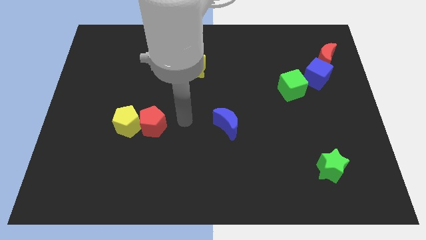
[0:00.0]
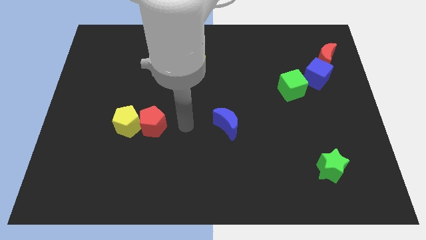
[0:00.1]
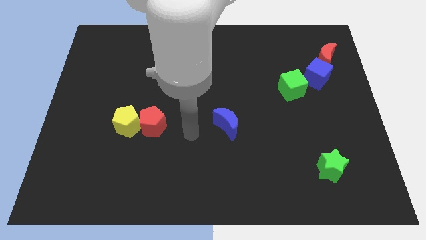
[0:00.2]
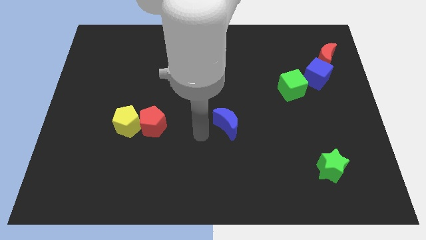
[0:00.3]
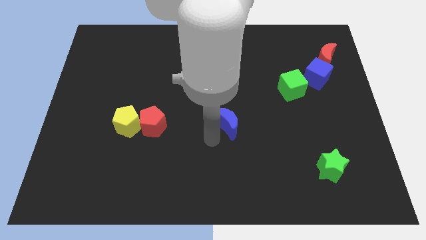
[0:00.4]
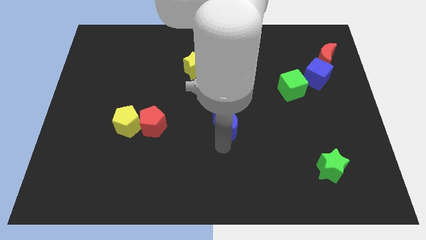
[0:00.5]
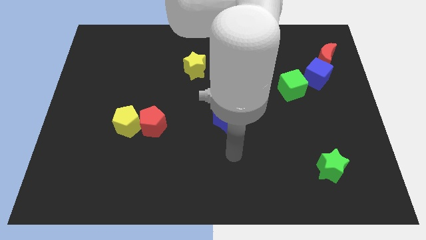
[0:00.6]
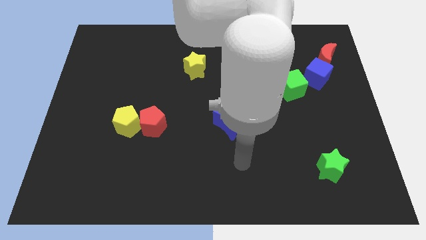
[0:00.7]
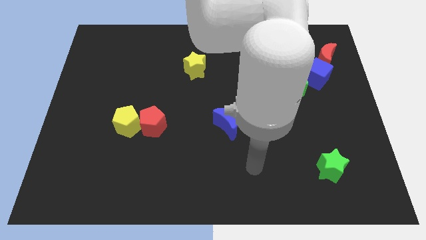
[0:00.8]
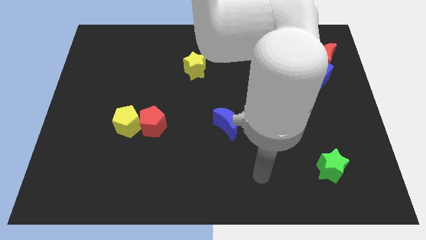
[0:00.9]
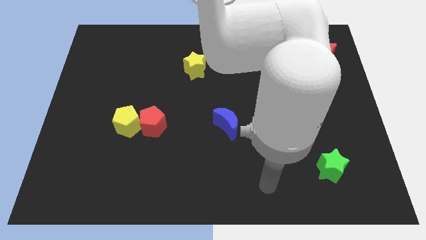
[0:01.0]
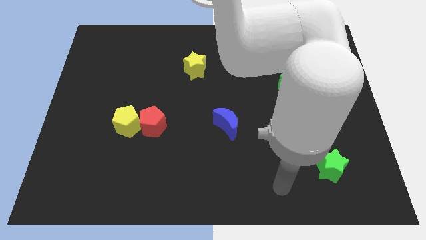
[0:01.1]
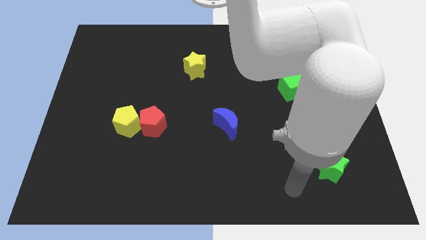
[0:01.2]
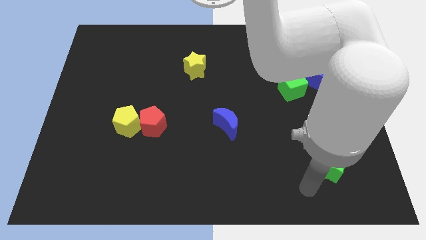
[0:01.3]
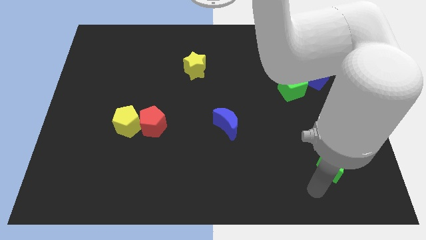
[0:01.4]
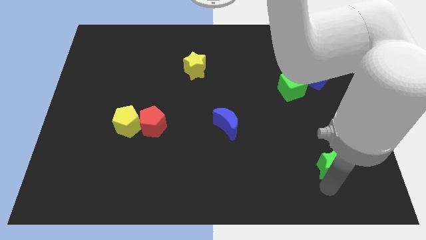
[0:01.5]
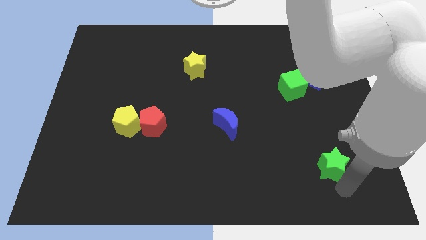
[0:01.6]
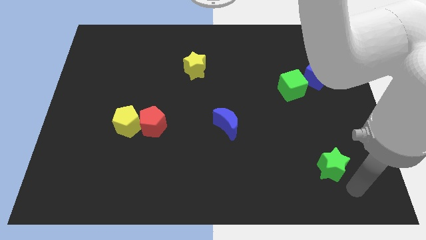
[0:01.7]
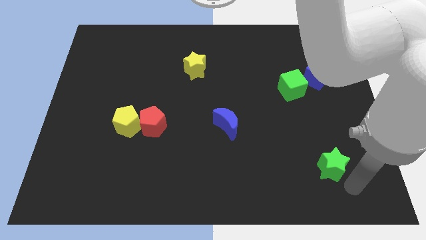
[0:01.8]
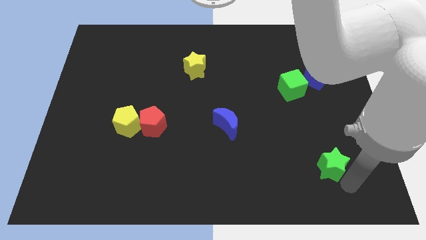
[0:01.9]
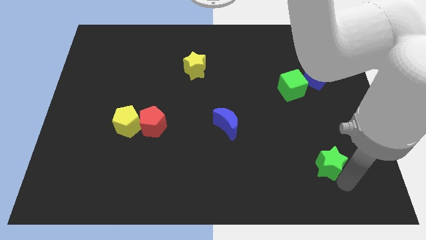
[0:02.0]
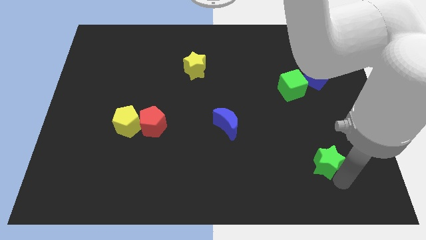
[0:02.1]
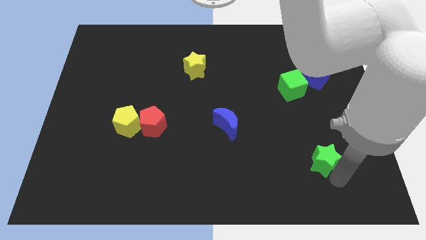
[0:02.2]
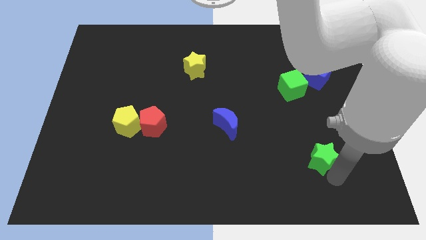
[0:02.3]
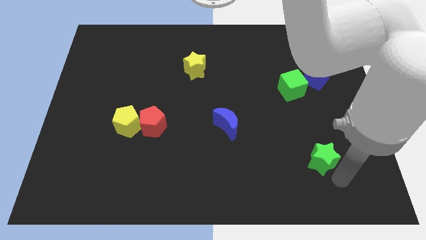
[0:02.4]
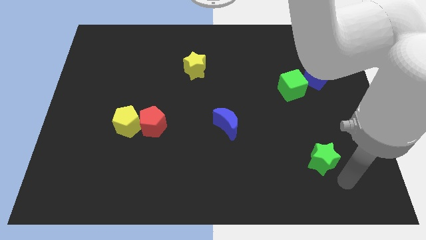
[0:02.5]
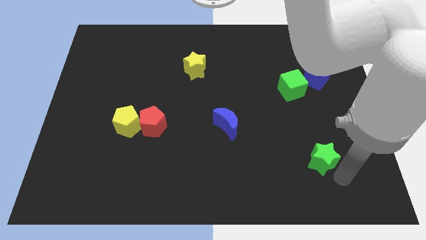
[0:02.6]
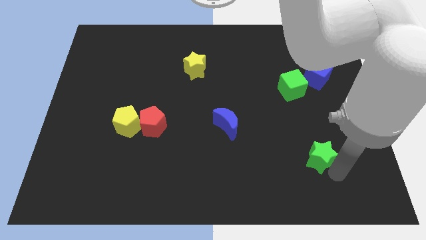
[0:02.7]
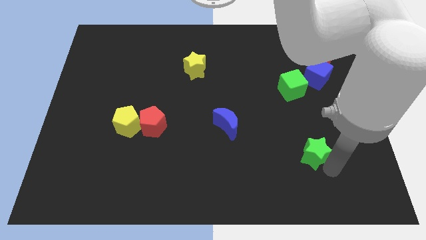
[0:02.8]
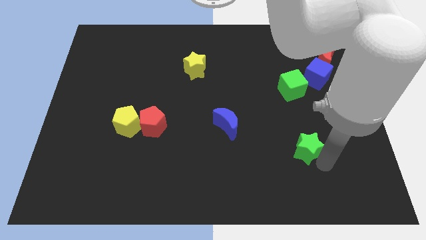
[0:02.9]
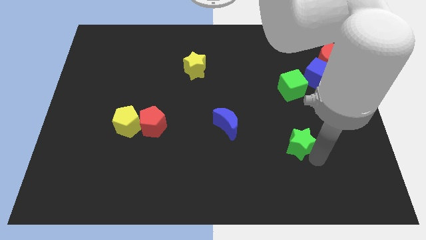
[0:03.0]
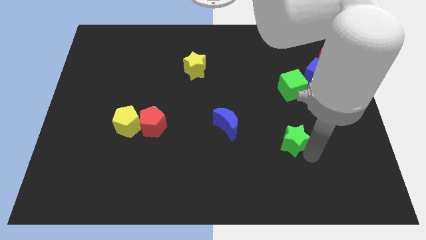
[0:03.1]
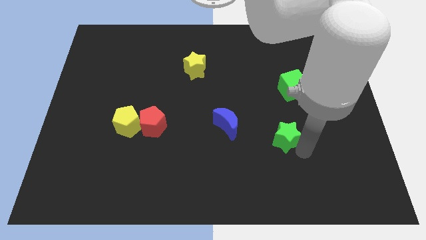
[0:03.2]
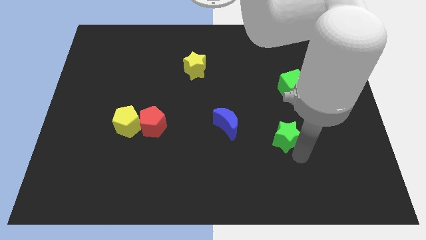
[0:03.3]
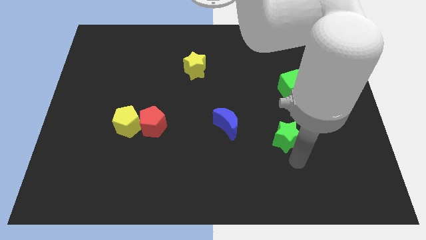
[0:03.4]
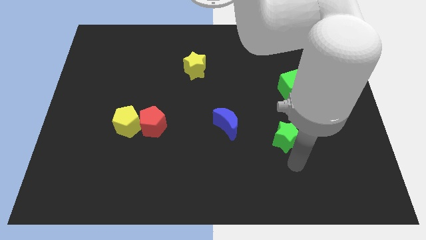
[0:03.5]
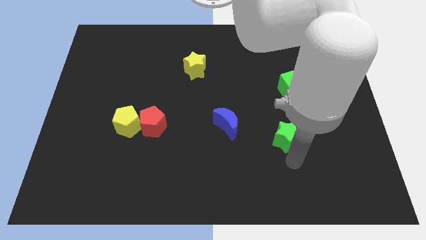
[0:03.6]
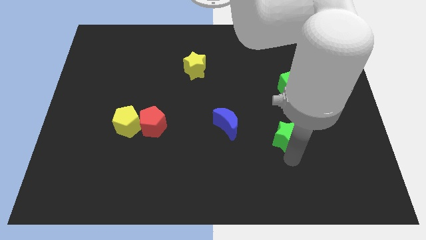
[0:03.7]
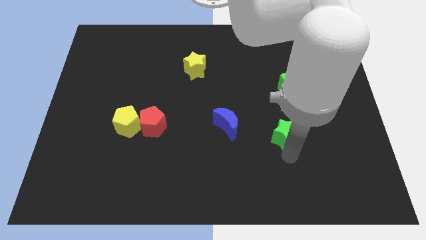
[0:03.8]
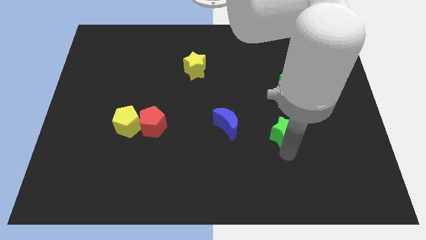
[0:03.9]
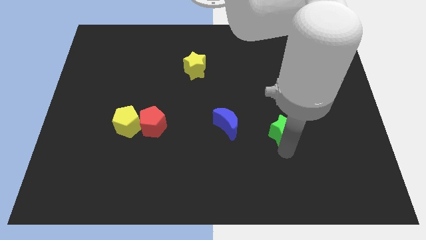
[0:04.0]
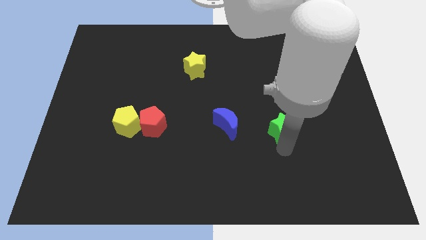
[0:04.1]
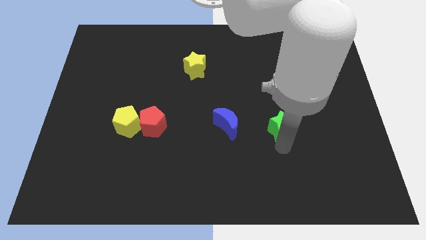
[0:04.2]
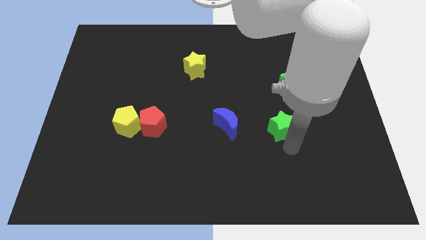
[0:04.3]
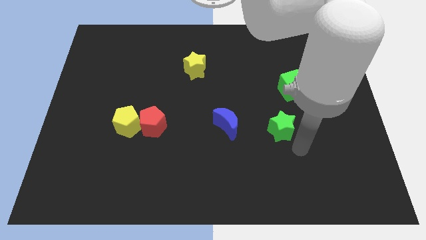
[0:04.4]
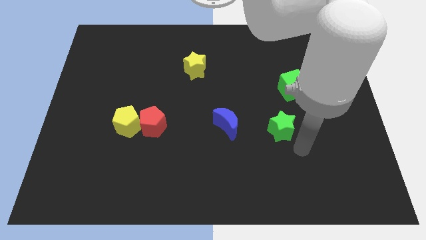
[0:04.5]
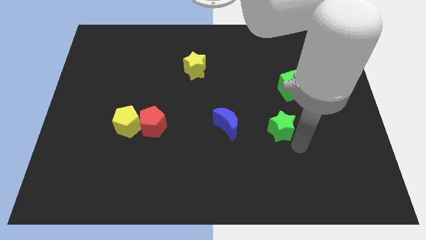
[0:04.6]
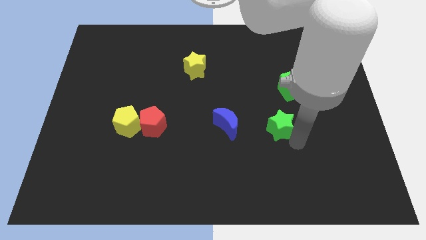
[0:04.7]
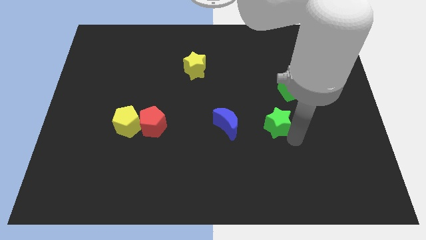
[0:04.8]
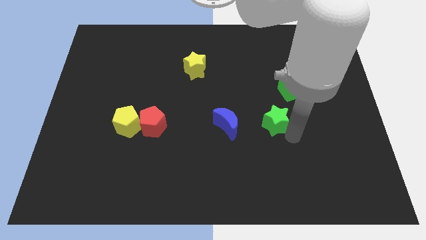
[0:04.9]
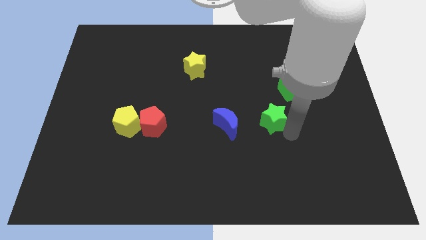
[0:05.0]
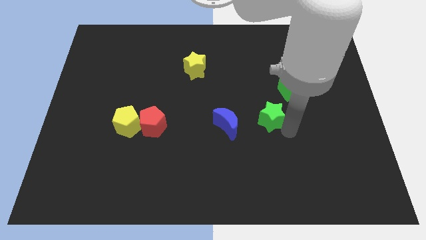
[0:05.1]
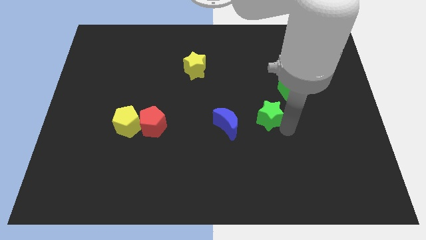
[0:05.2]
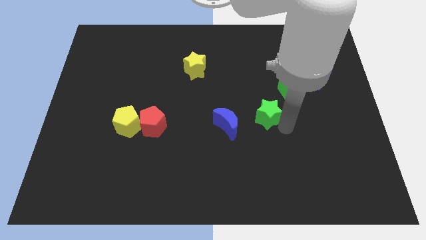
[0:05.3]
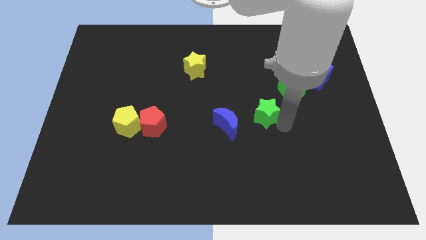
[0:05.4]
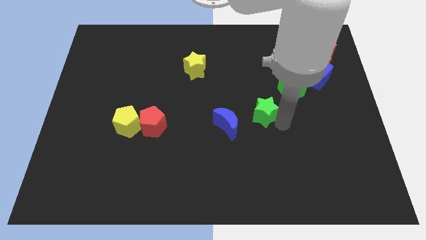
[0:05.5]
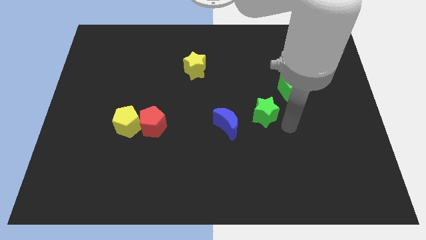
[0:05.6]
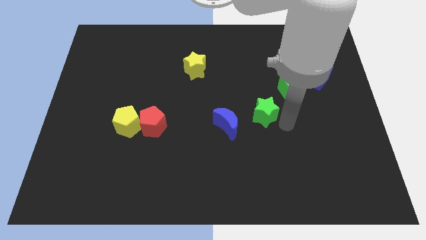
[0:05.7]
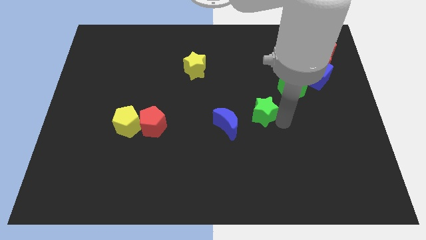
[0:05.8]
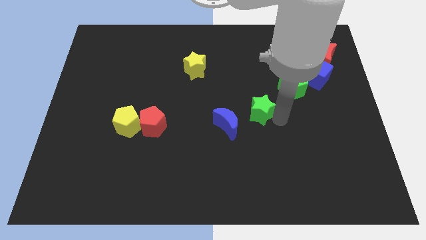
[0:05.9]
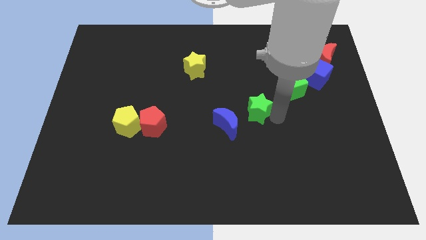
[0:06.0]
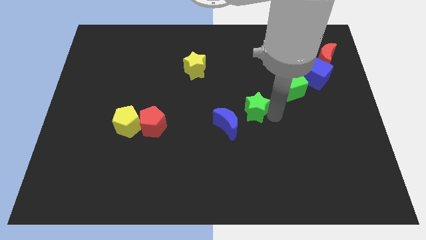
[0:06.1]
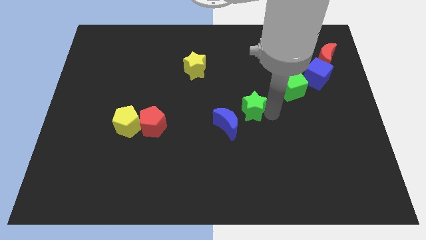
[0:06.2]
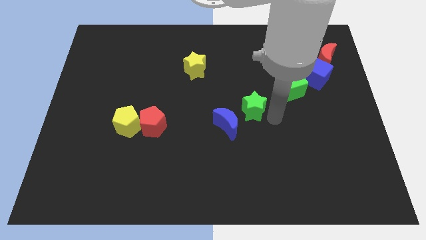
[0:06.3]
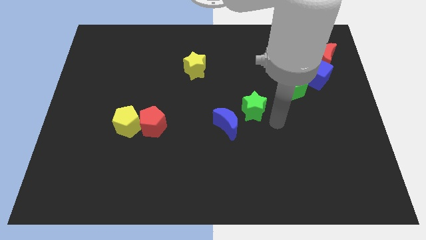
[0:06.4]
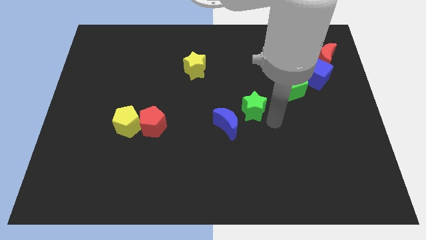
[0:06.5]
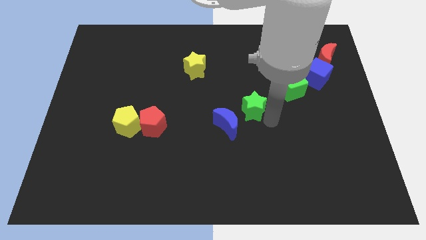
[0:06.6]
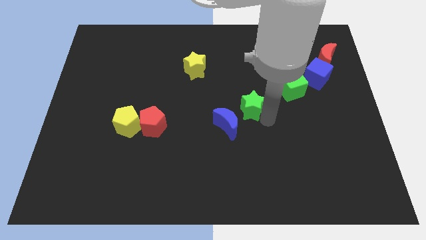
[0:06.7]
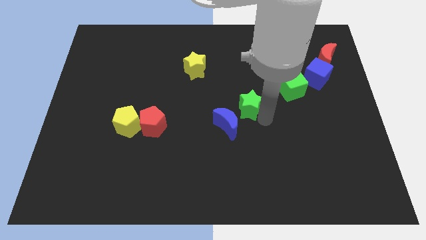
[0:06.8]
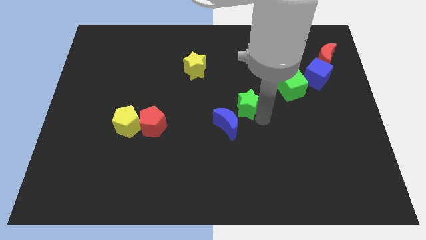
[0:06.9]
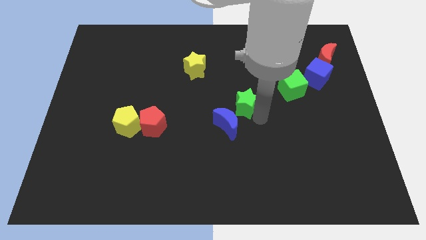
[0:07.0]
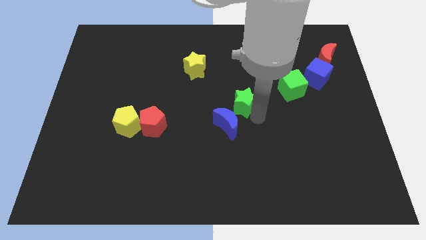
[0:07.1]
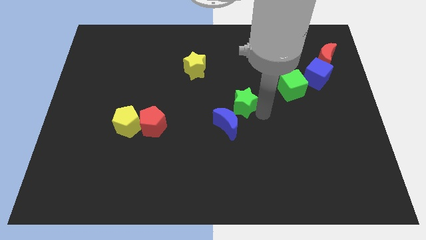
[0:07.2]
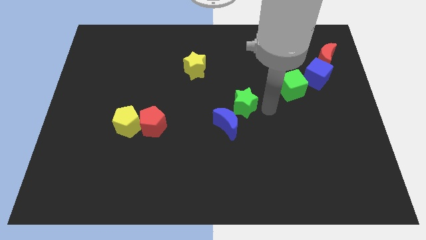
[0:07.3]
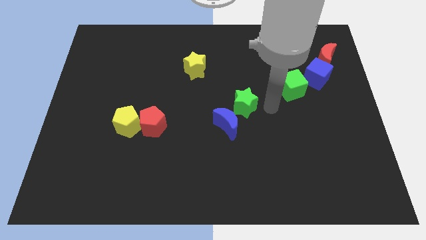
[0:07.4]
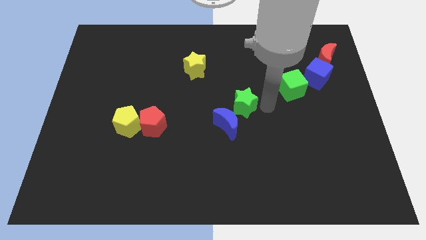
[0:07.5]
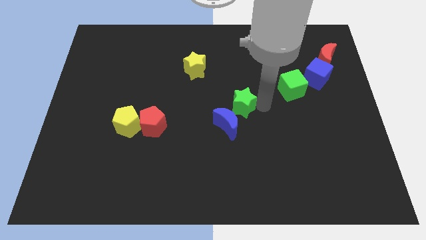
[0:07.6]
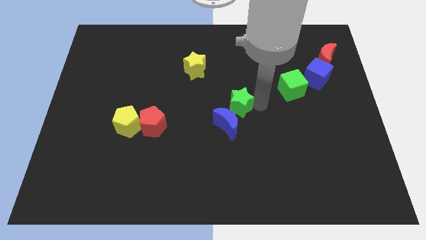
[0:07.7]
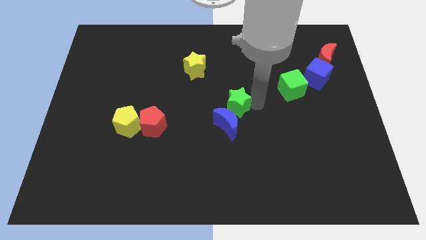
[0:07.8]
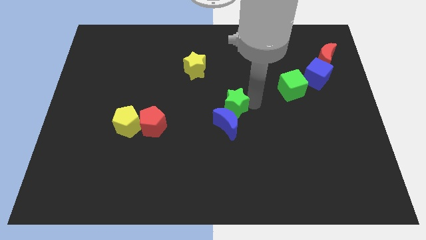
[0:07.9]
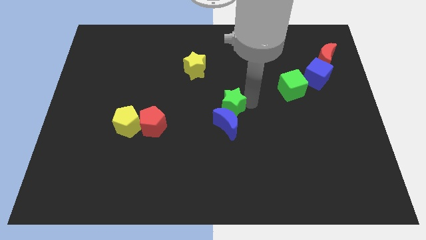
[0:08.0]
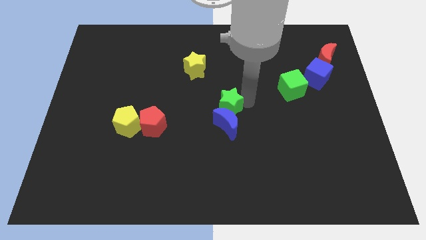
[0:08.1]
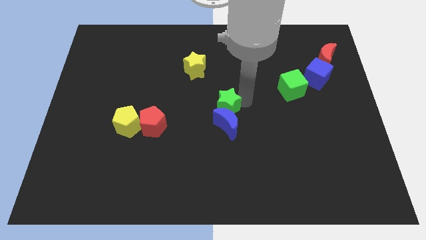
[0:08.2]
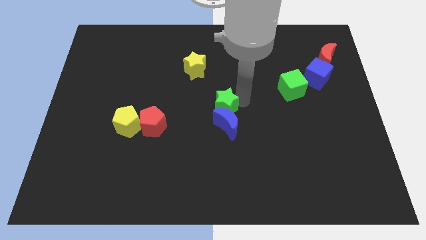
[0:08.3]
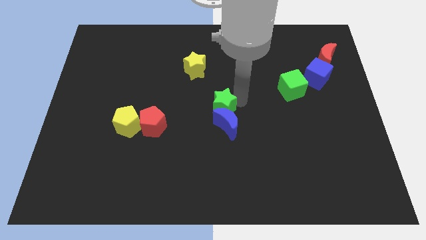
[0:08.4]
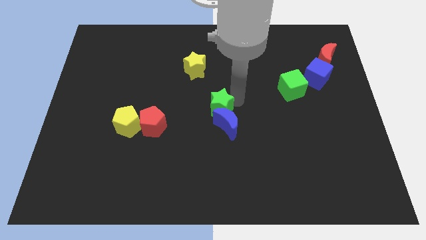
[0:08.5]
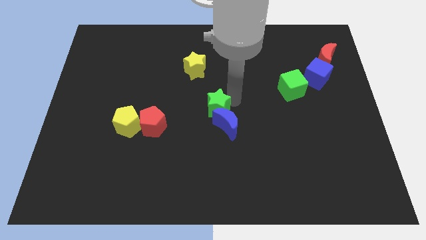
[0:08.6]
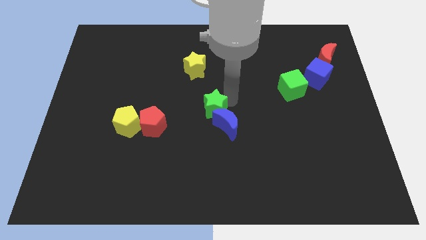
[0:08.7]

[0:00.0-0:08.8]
slide the green star to the bottom side of the yellow star
